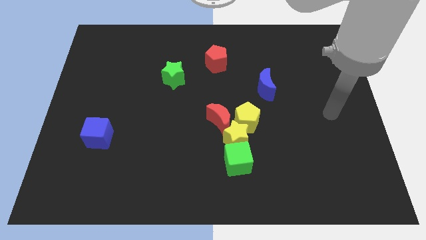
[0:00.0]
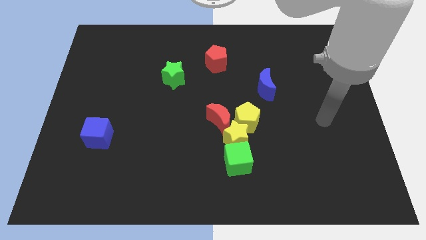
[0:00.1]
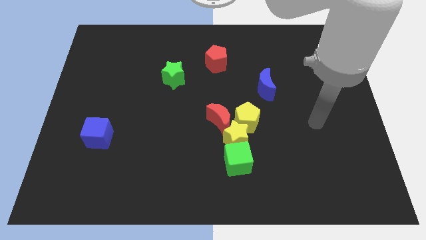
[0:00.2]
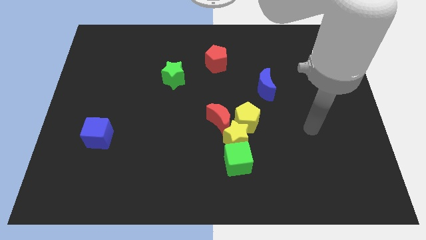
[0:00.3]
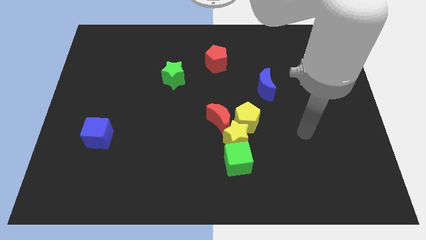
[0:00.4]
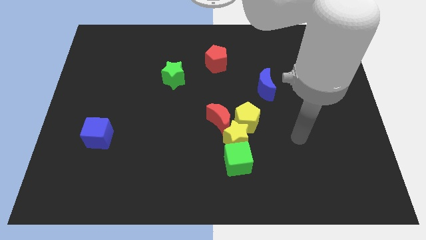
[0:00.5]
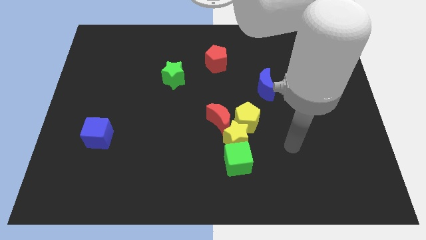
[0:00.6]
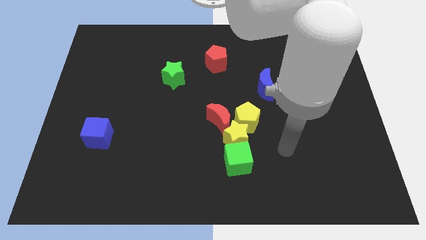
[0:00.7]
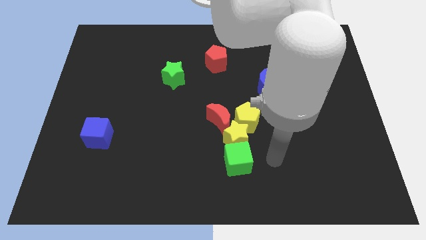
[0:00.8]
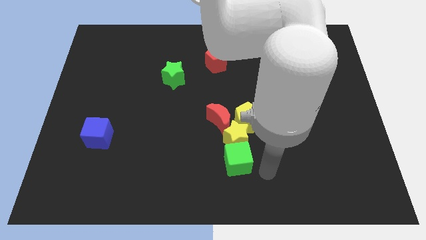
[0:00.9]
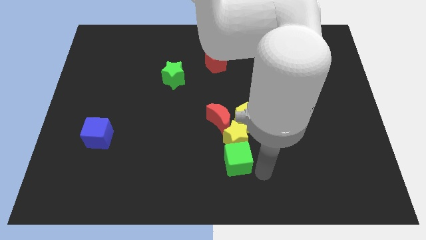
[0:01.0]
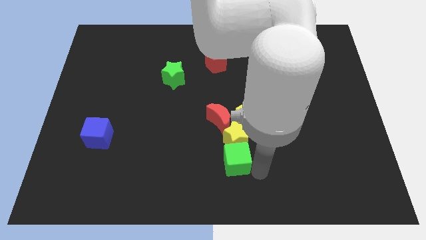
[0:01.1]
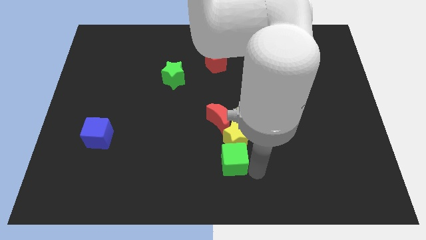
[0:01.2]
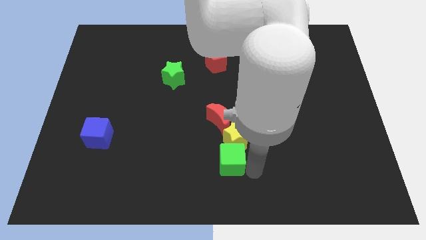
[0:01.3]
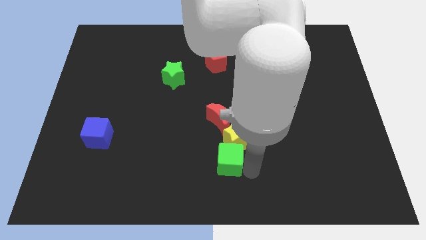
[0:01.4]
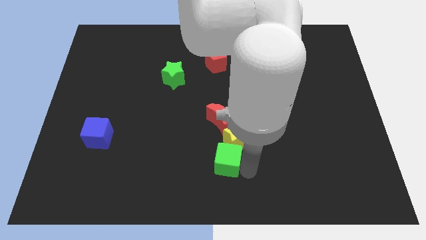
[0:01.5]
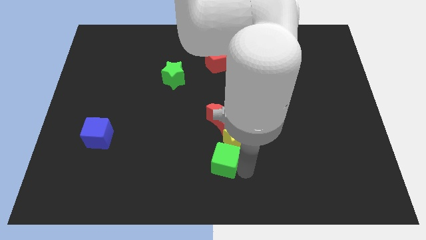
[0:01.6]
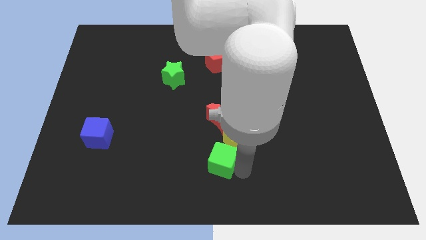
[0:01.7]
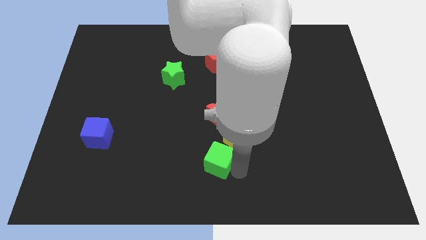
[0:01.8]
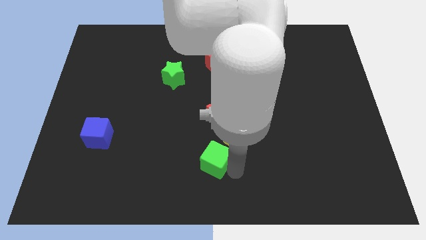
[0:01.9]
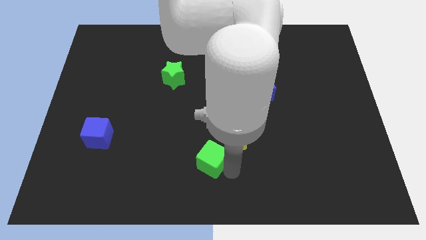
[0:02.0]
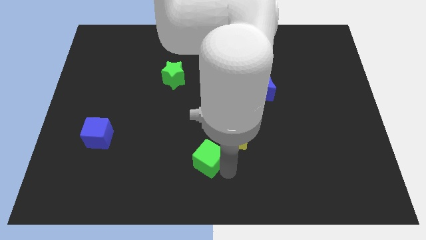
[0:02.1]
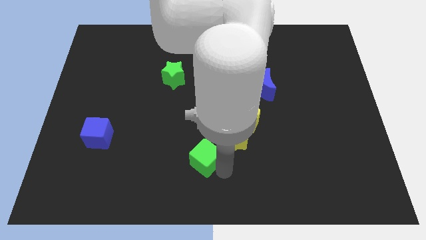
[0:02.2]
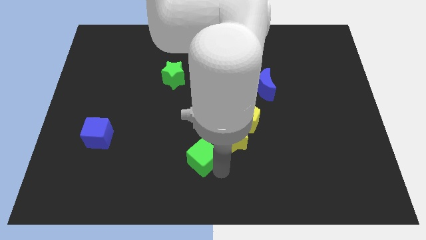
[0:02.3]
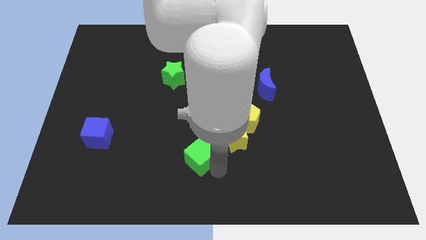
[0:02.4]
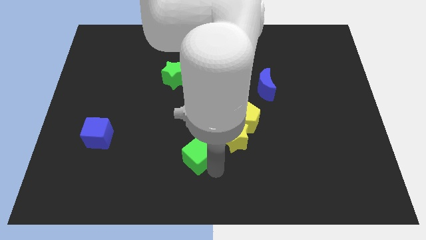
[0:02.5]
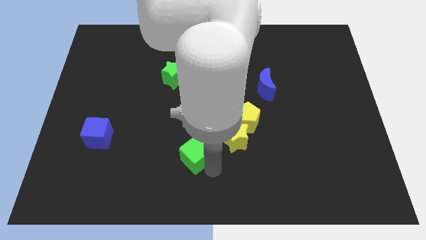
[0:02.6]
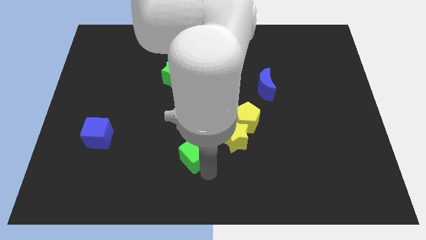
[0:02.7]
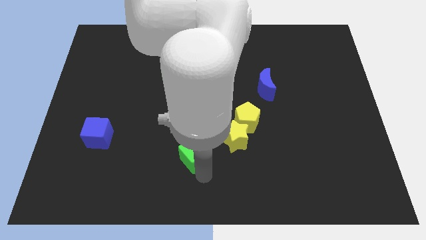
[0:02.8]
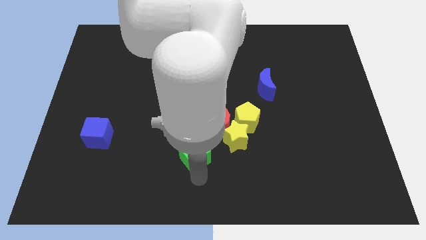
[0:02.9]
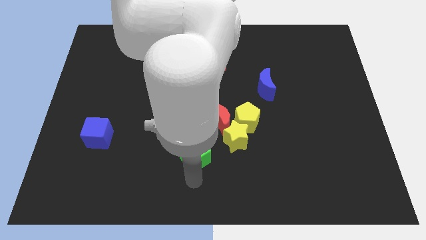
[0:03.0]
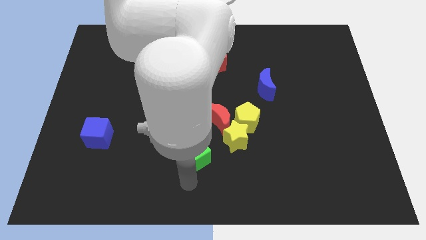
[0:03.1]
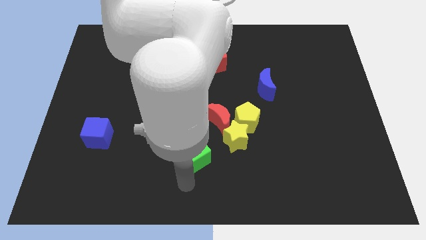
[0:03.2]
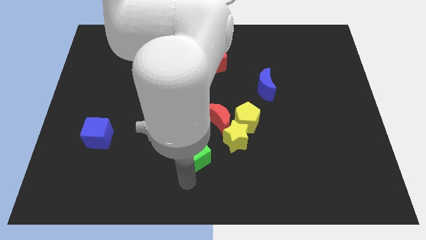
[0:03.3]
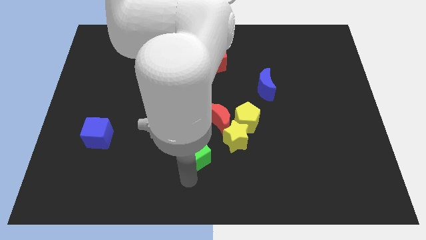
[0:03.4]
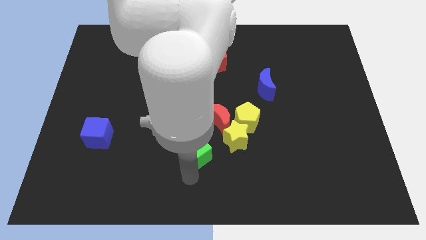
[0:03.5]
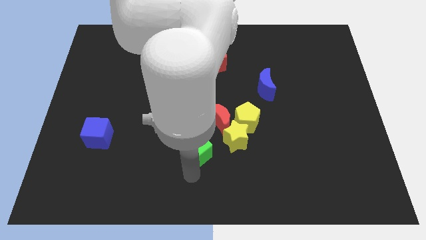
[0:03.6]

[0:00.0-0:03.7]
slide the green cube upwards and then to the left somewhat

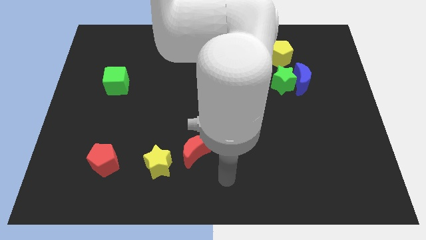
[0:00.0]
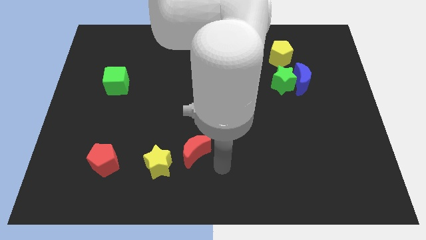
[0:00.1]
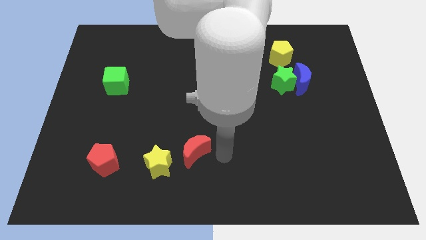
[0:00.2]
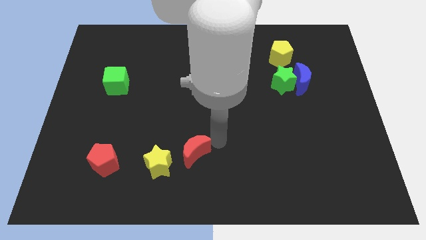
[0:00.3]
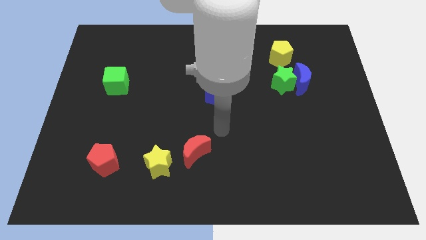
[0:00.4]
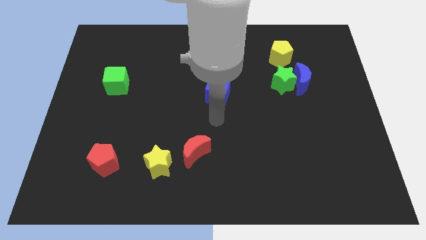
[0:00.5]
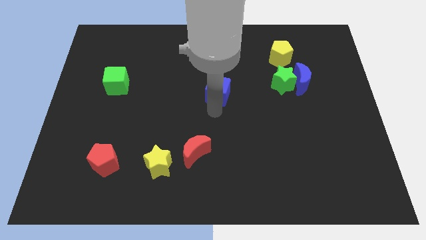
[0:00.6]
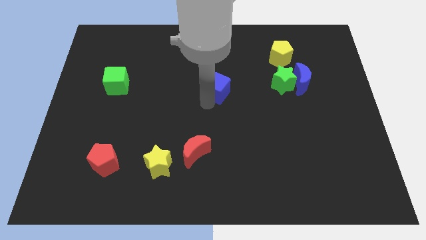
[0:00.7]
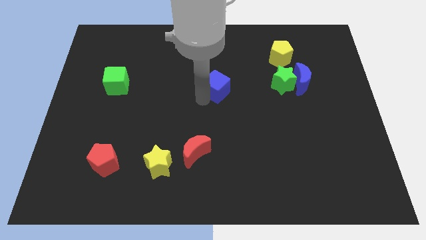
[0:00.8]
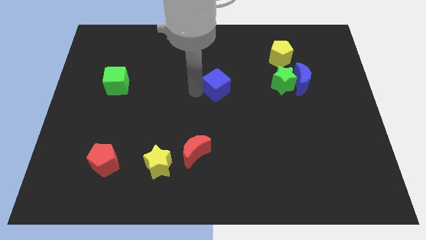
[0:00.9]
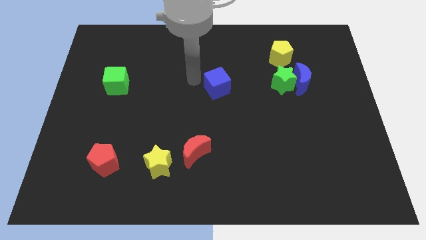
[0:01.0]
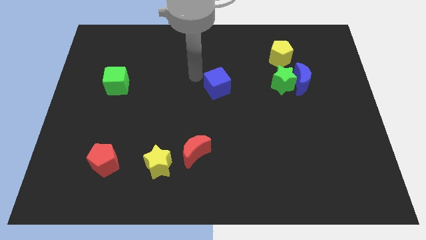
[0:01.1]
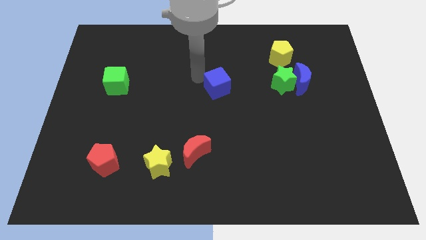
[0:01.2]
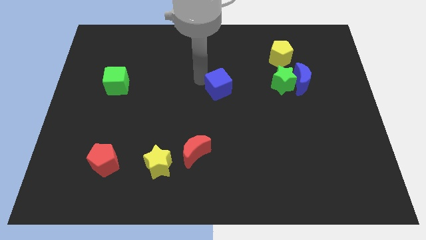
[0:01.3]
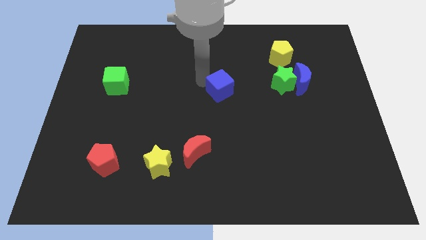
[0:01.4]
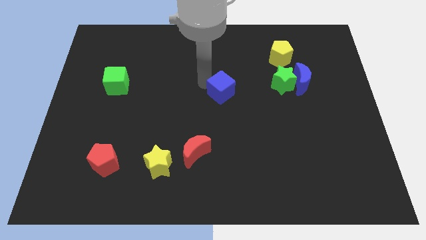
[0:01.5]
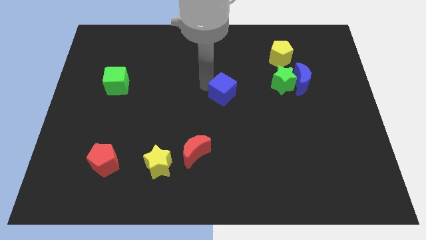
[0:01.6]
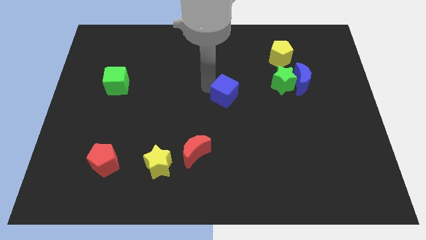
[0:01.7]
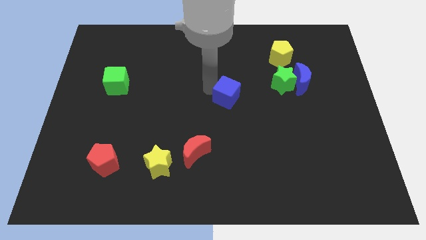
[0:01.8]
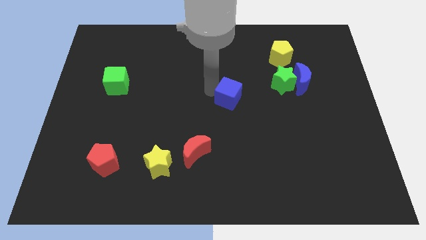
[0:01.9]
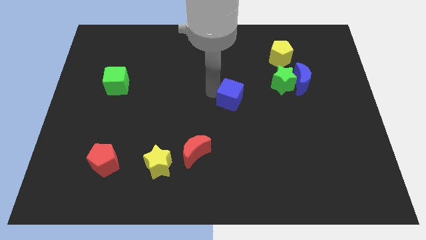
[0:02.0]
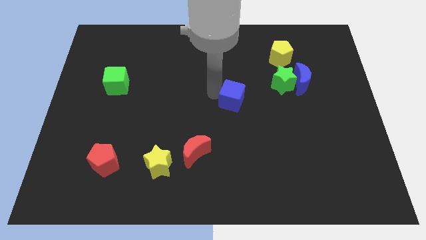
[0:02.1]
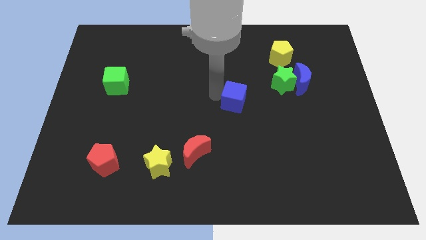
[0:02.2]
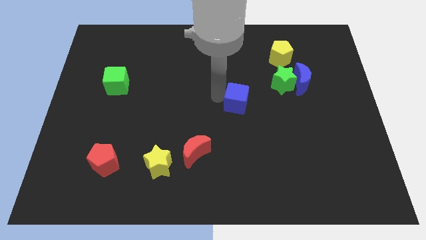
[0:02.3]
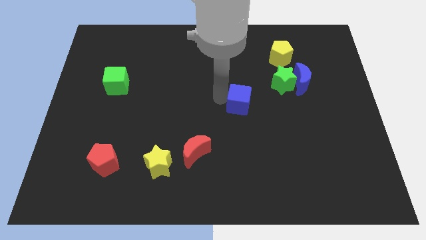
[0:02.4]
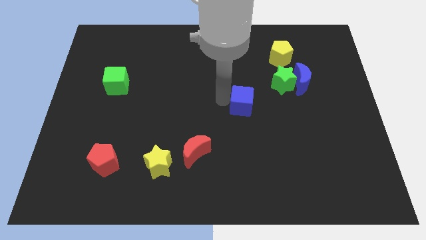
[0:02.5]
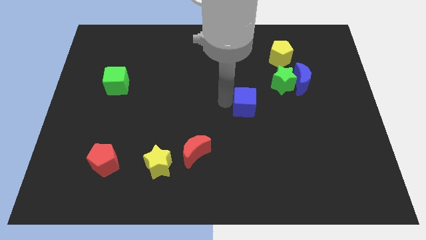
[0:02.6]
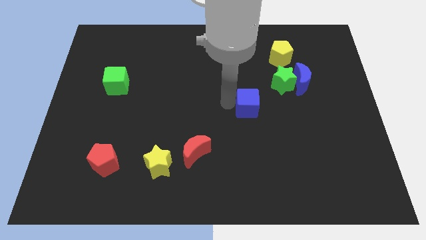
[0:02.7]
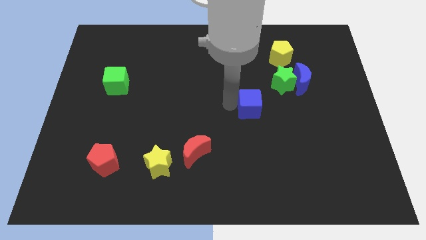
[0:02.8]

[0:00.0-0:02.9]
slightly push the blue cube to the right

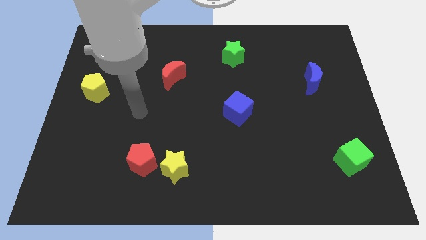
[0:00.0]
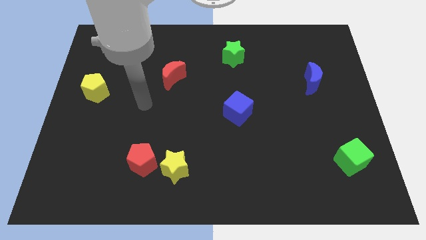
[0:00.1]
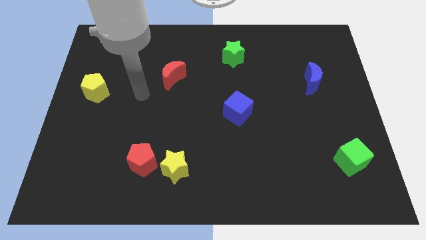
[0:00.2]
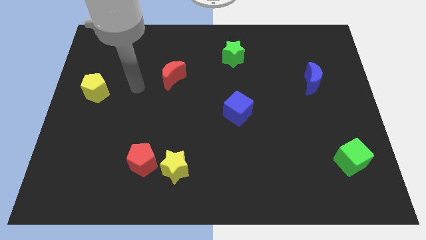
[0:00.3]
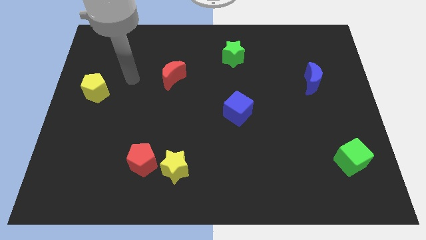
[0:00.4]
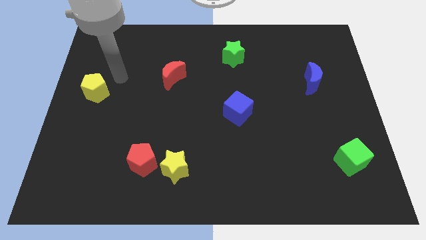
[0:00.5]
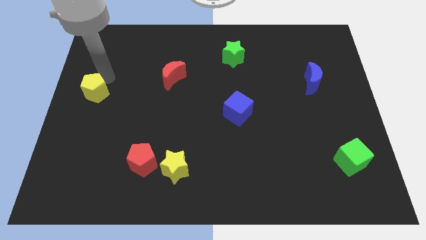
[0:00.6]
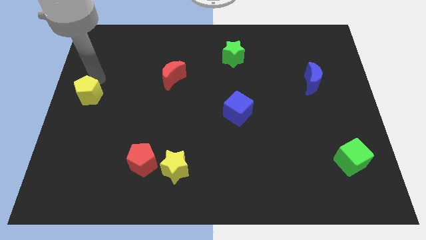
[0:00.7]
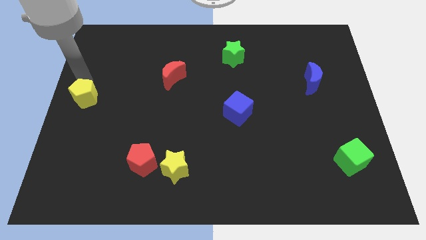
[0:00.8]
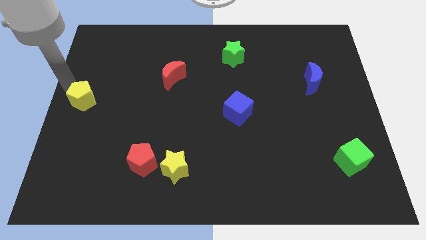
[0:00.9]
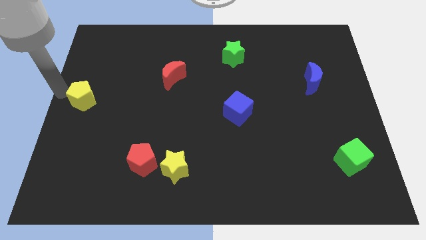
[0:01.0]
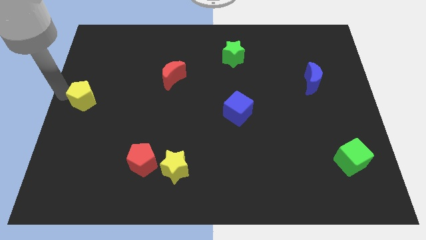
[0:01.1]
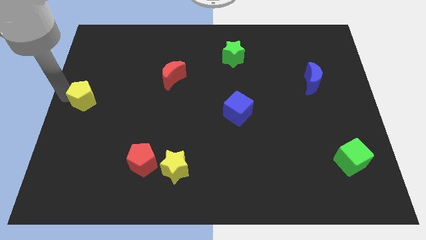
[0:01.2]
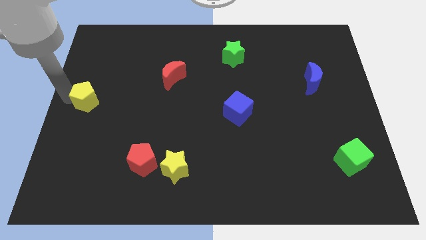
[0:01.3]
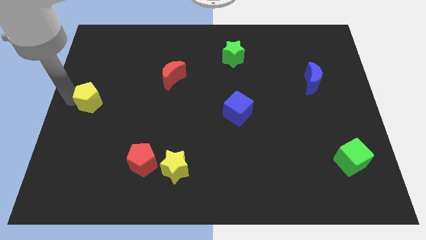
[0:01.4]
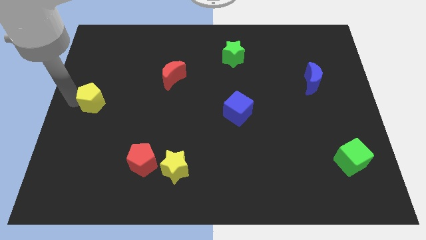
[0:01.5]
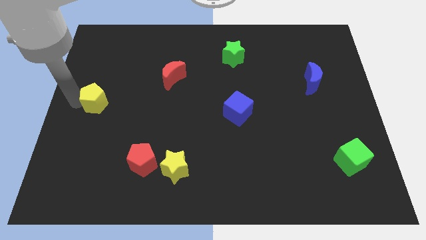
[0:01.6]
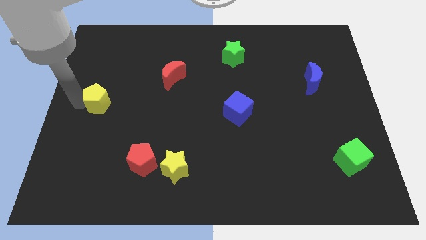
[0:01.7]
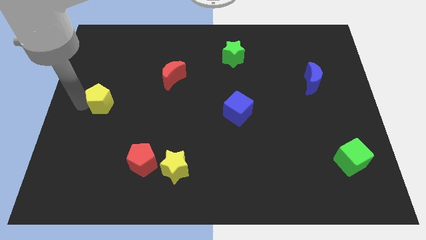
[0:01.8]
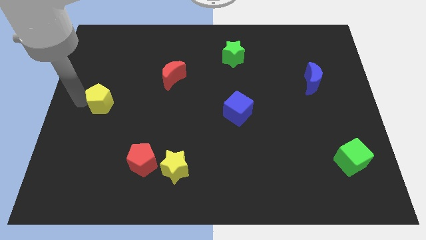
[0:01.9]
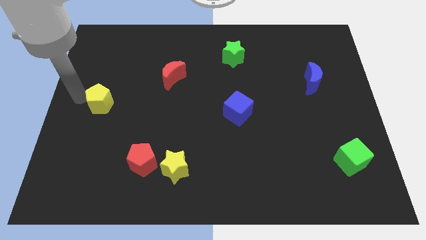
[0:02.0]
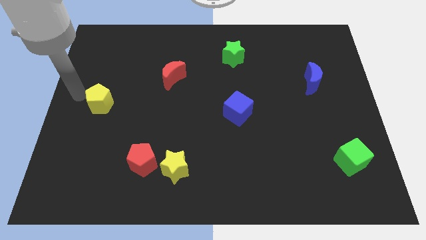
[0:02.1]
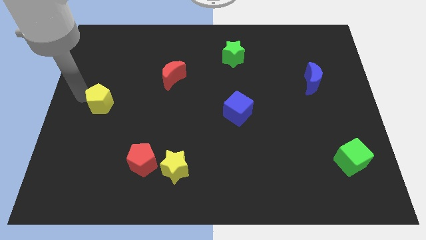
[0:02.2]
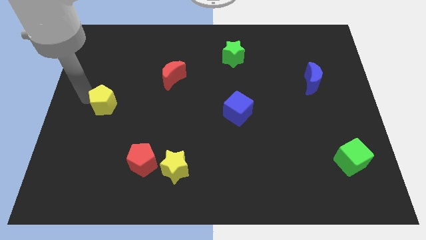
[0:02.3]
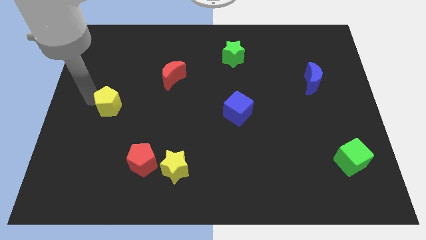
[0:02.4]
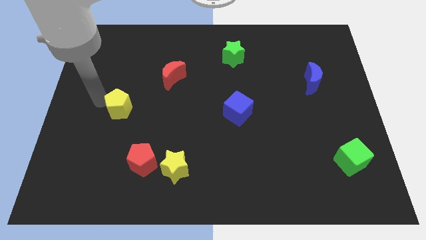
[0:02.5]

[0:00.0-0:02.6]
push the yellow pentagon slightly downwards and to the right diagonally
